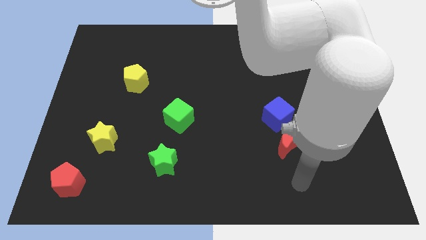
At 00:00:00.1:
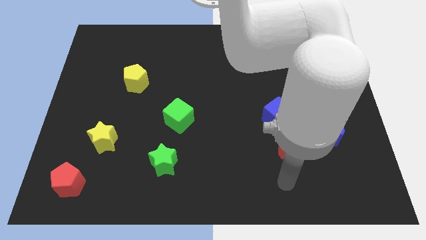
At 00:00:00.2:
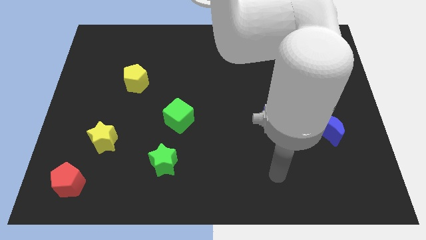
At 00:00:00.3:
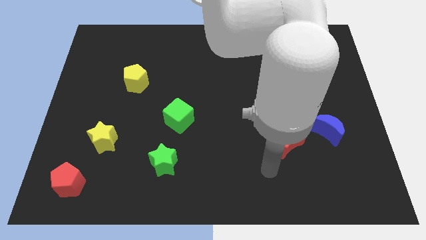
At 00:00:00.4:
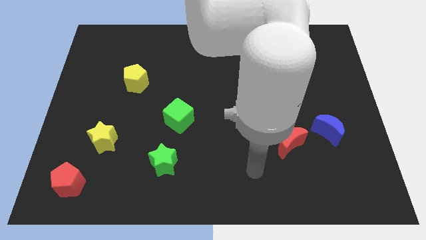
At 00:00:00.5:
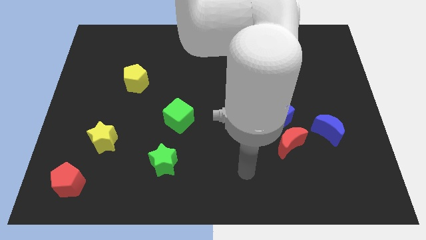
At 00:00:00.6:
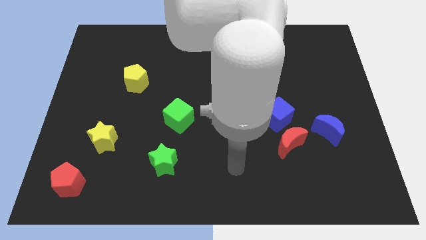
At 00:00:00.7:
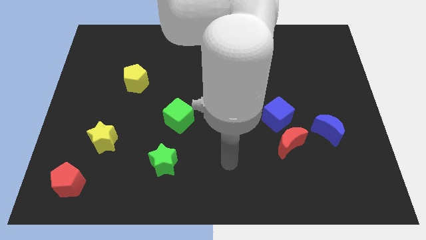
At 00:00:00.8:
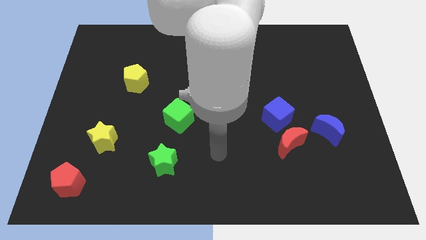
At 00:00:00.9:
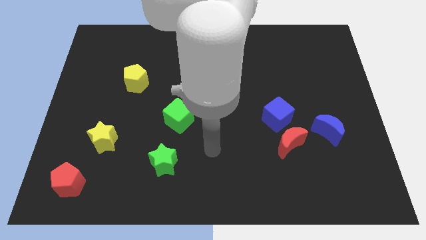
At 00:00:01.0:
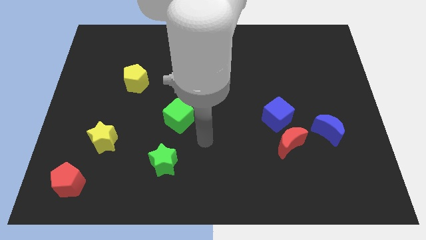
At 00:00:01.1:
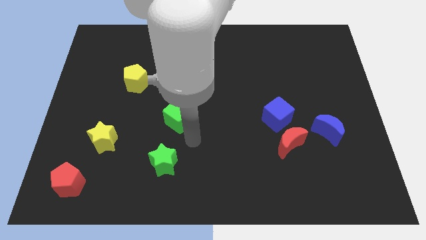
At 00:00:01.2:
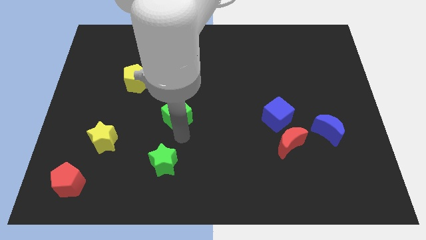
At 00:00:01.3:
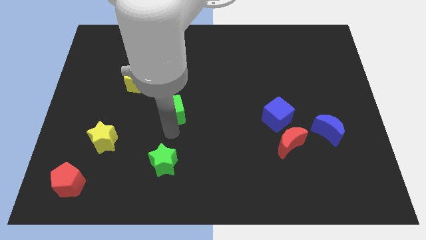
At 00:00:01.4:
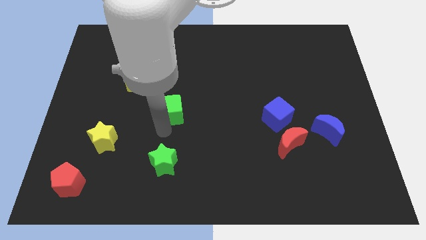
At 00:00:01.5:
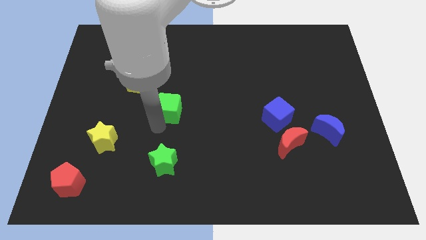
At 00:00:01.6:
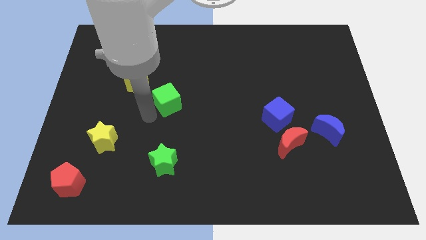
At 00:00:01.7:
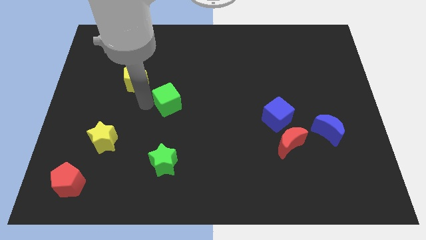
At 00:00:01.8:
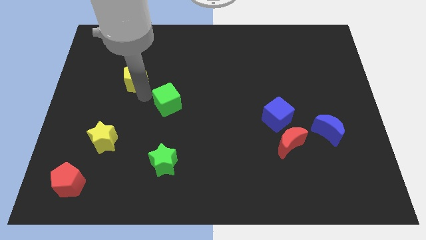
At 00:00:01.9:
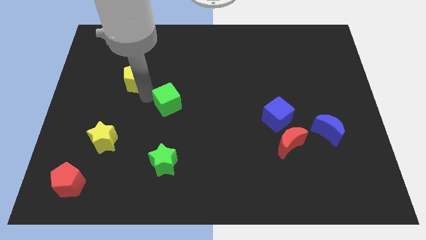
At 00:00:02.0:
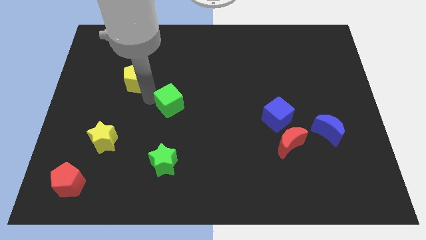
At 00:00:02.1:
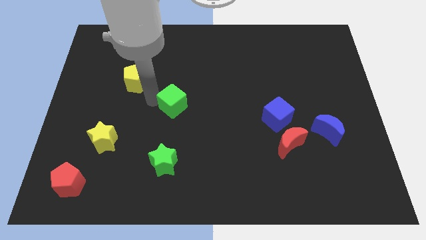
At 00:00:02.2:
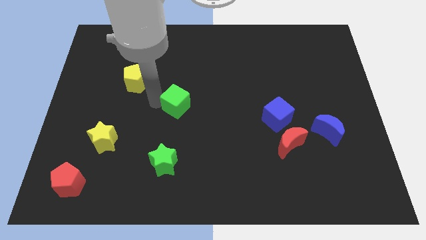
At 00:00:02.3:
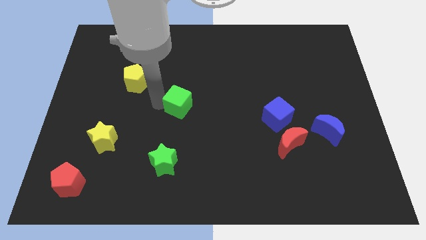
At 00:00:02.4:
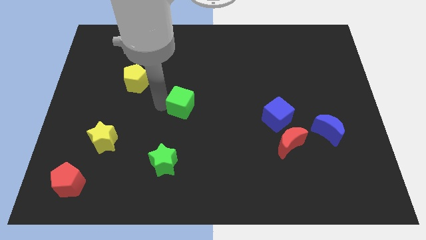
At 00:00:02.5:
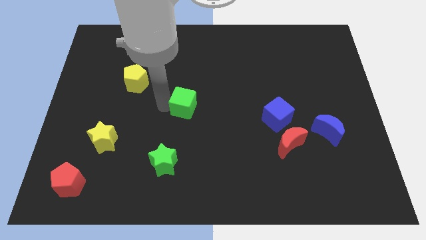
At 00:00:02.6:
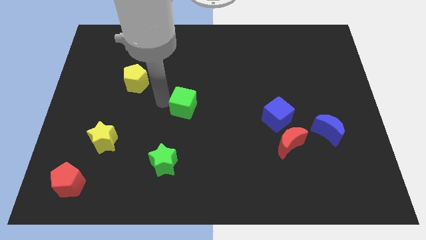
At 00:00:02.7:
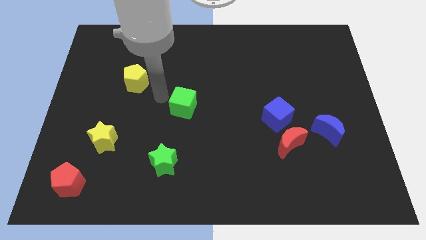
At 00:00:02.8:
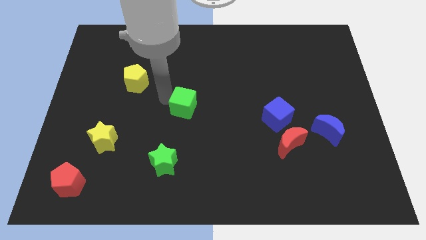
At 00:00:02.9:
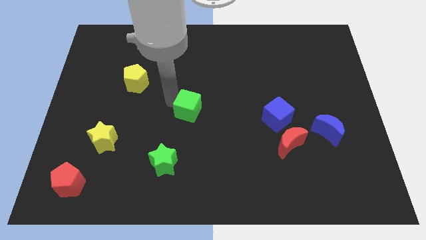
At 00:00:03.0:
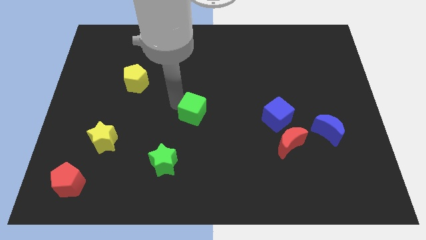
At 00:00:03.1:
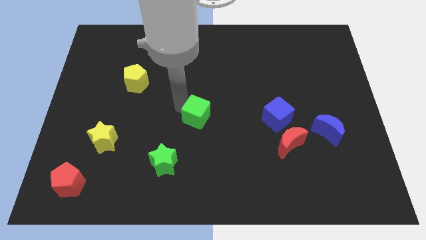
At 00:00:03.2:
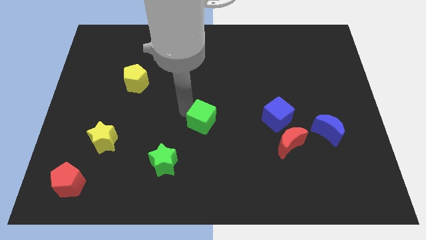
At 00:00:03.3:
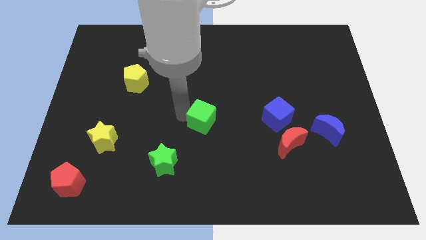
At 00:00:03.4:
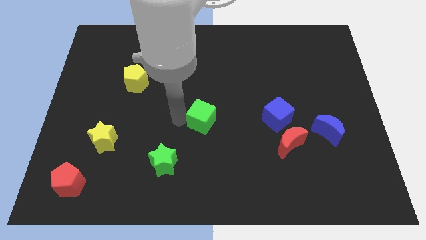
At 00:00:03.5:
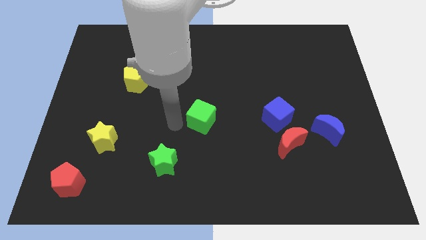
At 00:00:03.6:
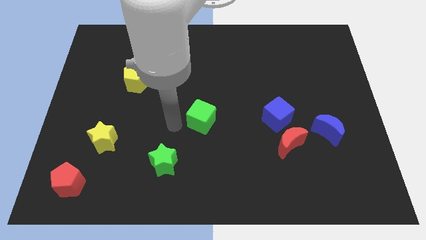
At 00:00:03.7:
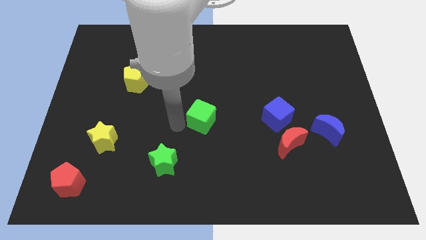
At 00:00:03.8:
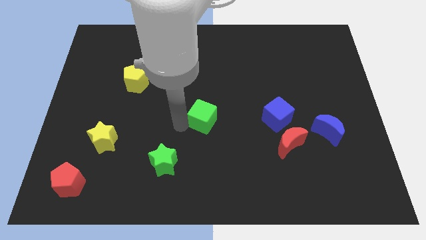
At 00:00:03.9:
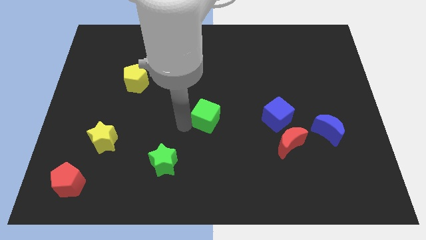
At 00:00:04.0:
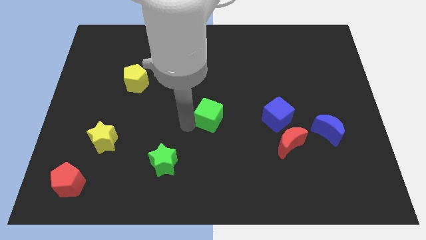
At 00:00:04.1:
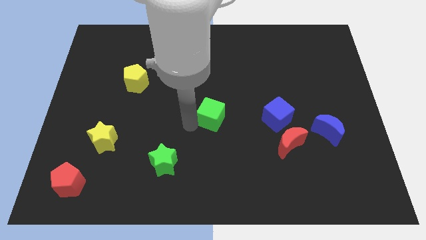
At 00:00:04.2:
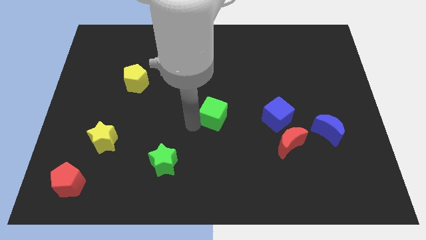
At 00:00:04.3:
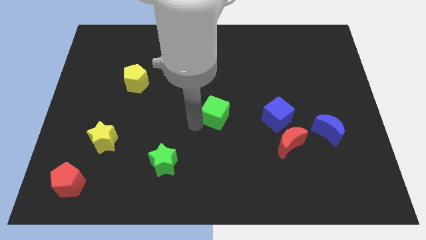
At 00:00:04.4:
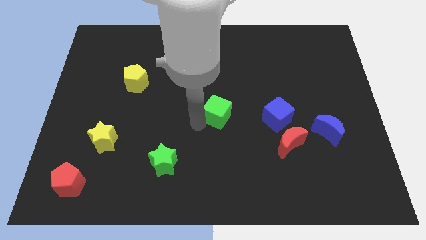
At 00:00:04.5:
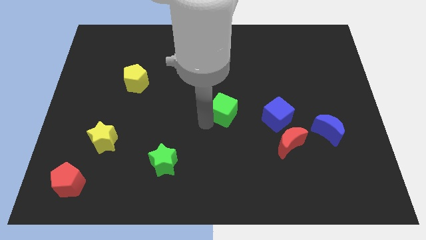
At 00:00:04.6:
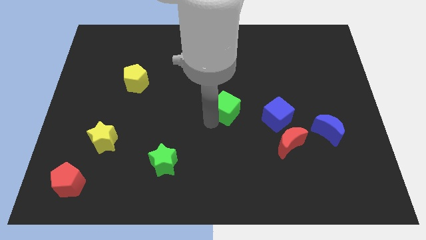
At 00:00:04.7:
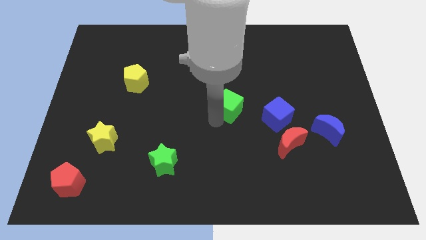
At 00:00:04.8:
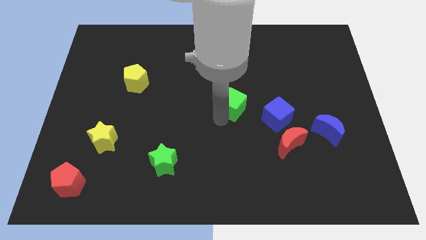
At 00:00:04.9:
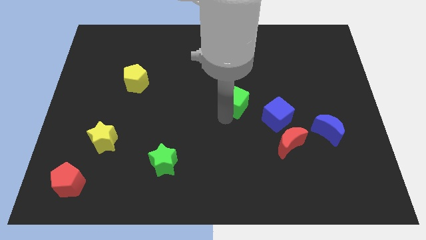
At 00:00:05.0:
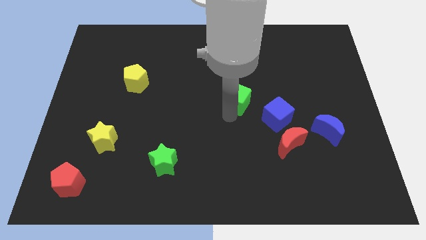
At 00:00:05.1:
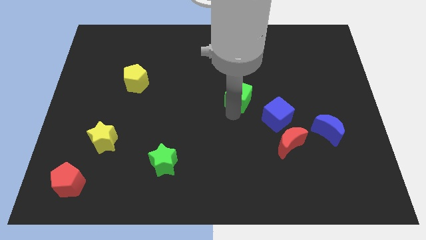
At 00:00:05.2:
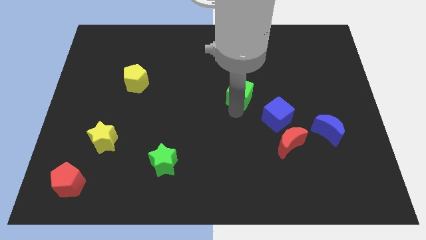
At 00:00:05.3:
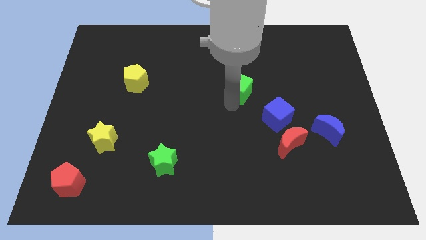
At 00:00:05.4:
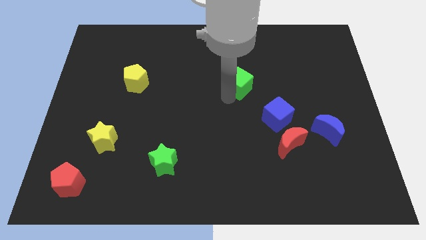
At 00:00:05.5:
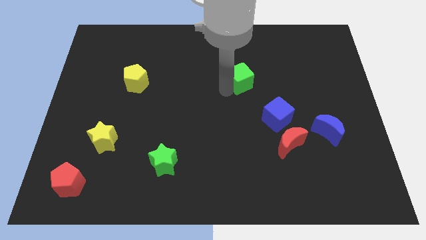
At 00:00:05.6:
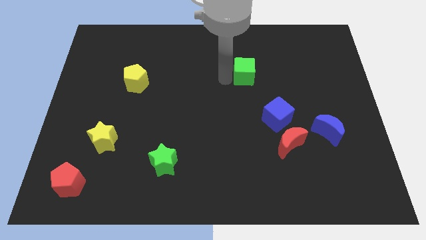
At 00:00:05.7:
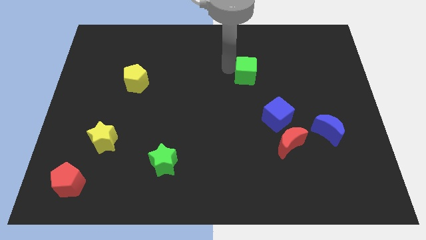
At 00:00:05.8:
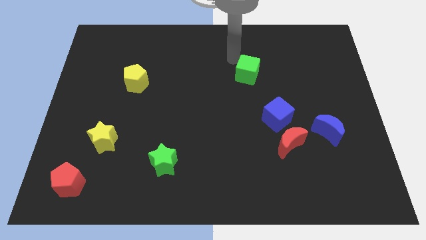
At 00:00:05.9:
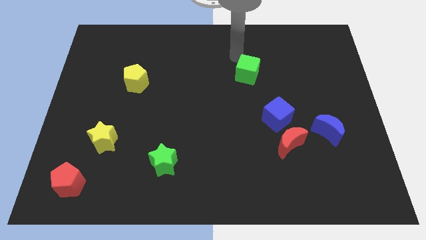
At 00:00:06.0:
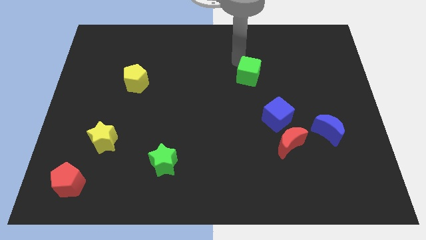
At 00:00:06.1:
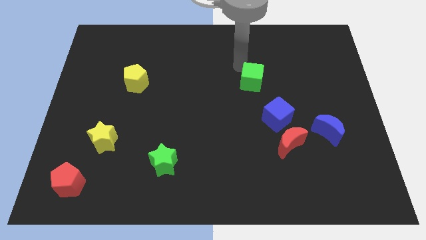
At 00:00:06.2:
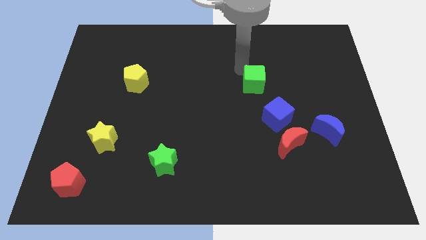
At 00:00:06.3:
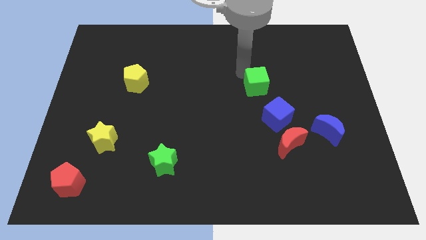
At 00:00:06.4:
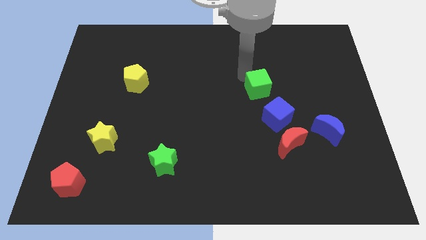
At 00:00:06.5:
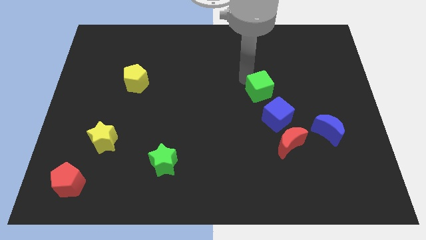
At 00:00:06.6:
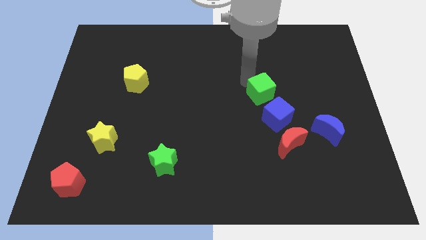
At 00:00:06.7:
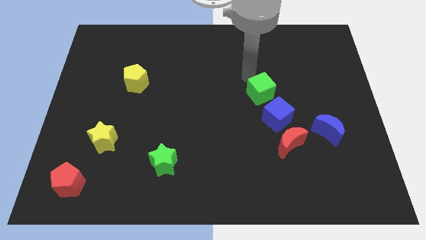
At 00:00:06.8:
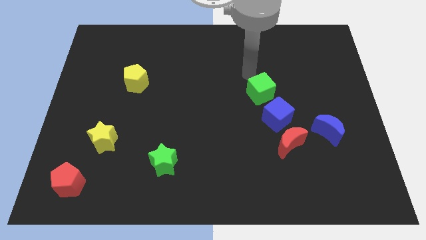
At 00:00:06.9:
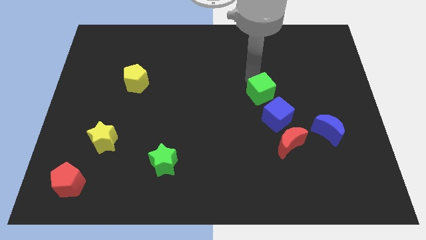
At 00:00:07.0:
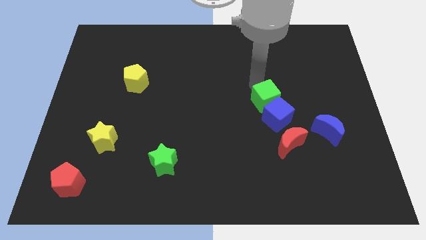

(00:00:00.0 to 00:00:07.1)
put the green cube next to the blue cube
